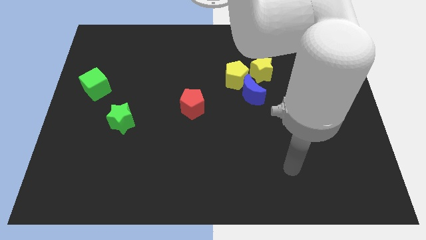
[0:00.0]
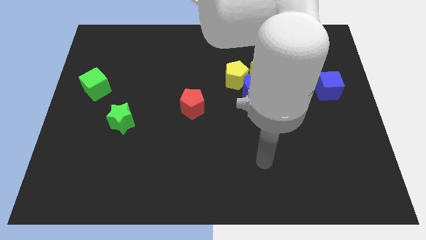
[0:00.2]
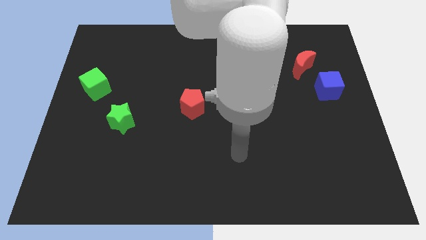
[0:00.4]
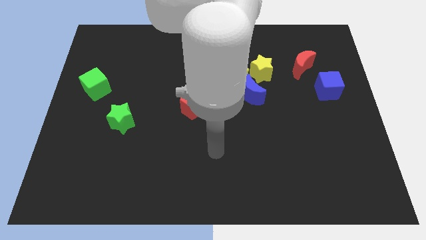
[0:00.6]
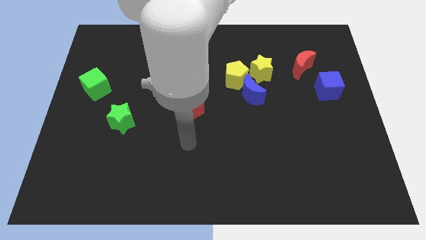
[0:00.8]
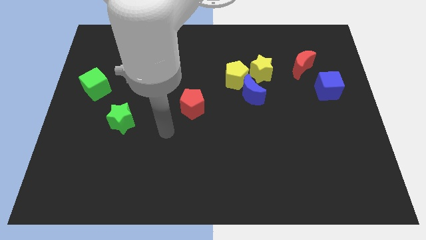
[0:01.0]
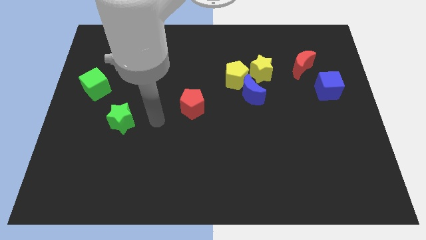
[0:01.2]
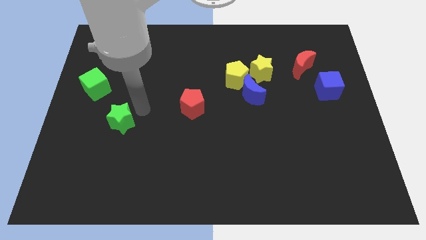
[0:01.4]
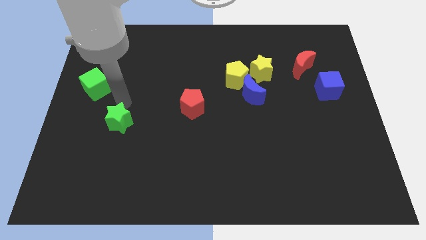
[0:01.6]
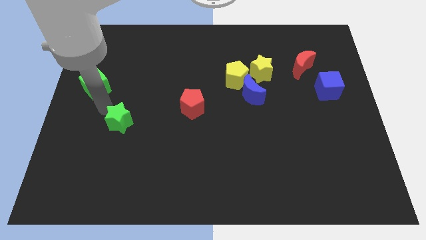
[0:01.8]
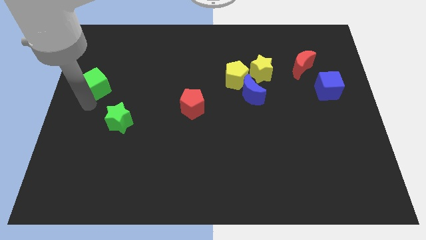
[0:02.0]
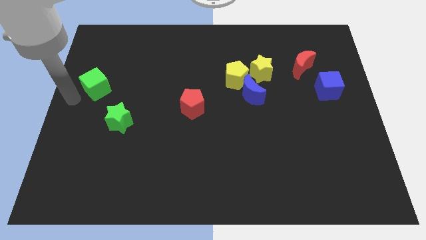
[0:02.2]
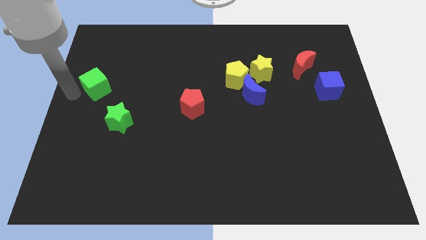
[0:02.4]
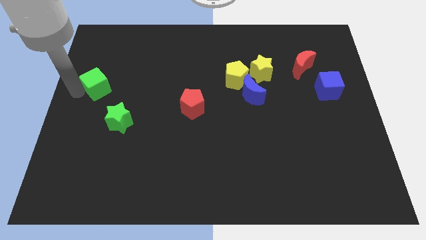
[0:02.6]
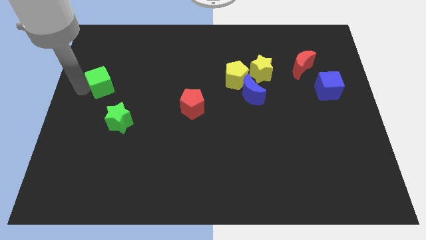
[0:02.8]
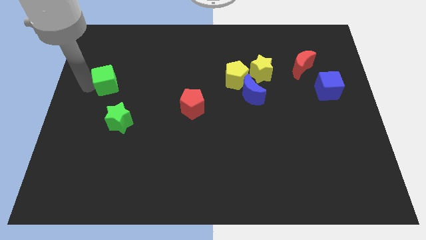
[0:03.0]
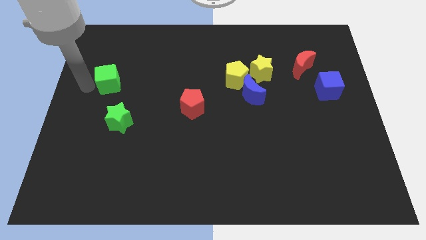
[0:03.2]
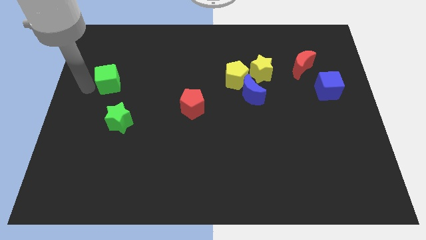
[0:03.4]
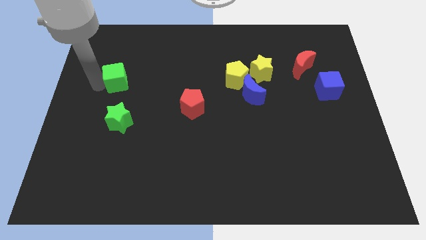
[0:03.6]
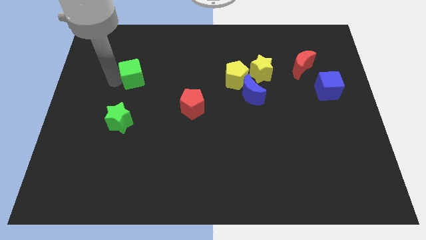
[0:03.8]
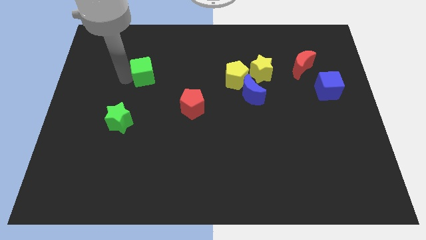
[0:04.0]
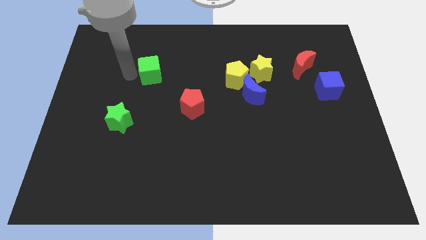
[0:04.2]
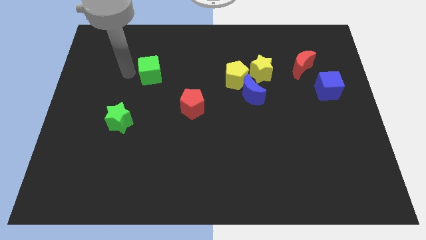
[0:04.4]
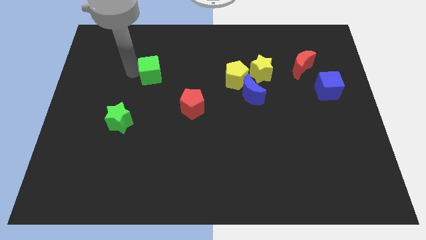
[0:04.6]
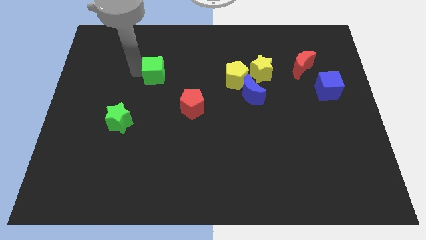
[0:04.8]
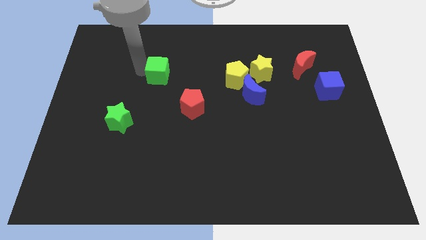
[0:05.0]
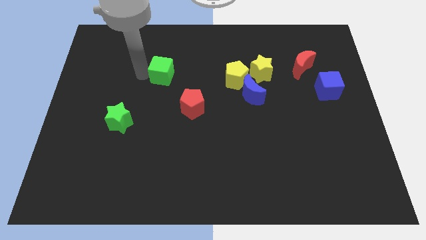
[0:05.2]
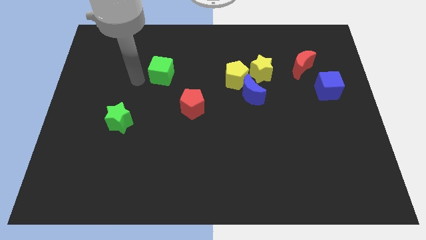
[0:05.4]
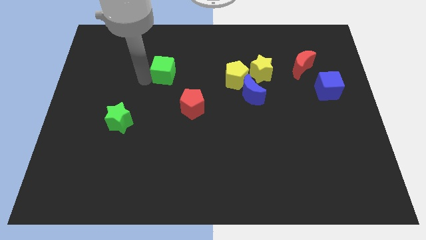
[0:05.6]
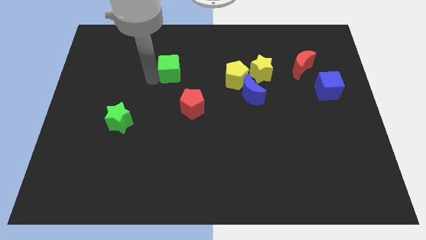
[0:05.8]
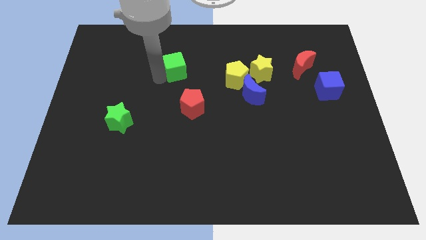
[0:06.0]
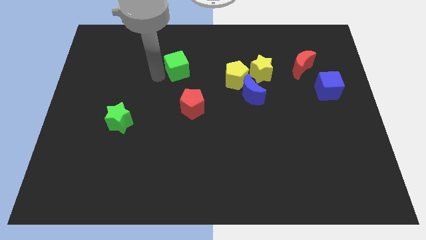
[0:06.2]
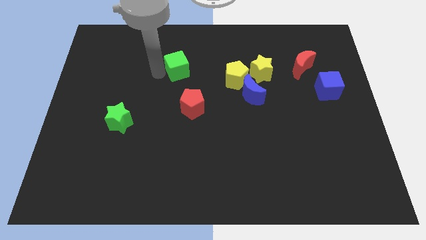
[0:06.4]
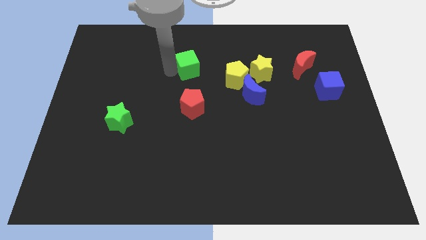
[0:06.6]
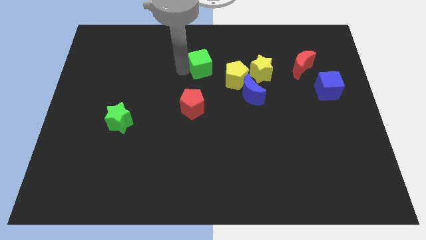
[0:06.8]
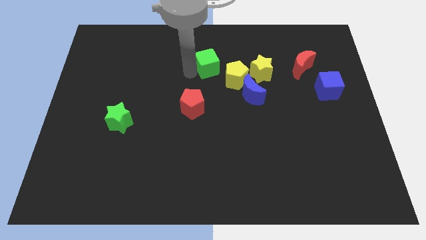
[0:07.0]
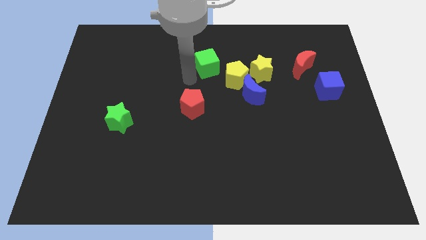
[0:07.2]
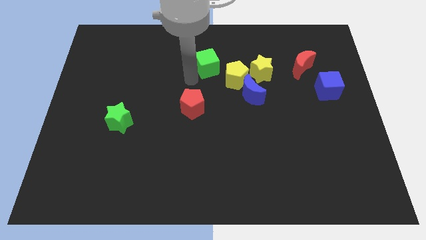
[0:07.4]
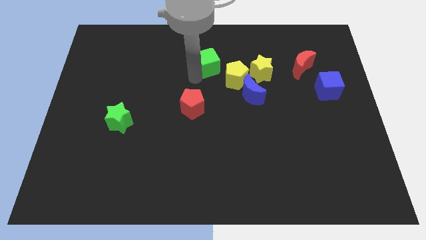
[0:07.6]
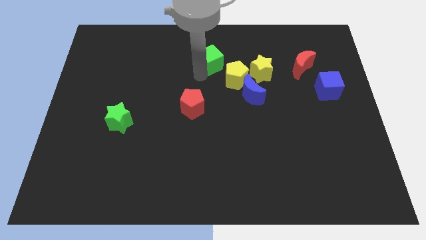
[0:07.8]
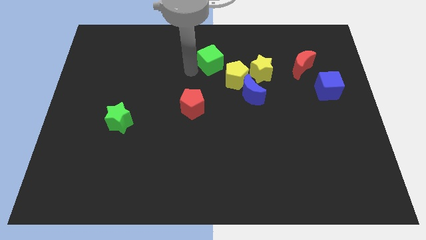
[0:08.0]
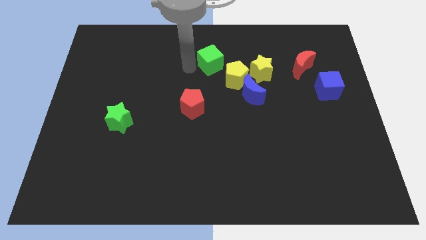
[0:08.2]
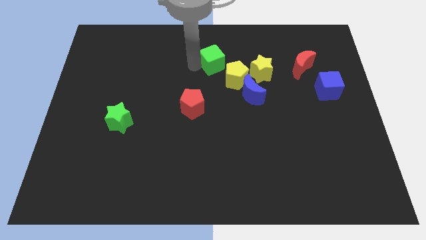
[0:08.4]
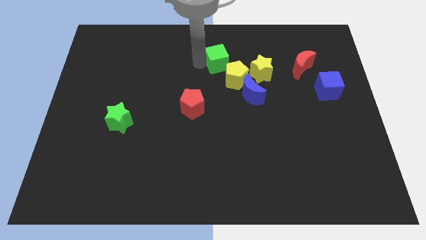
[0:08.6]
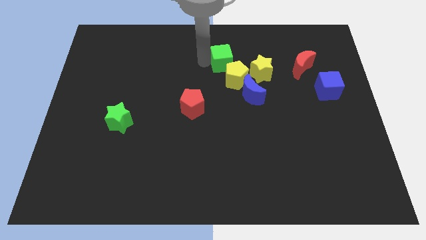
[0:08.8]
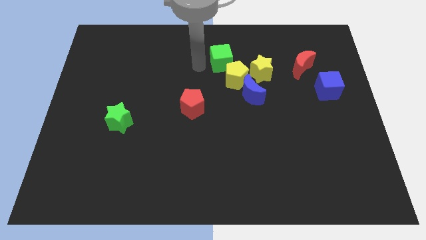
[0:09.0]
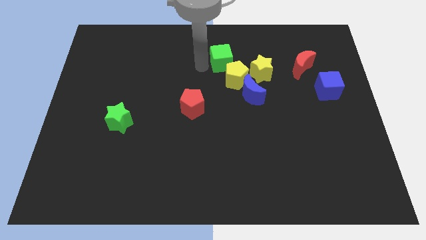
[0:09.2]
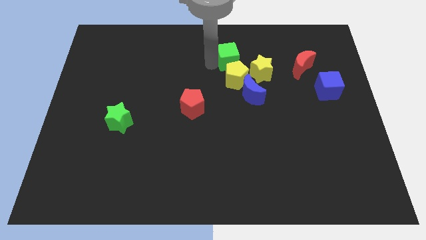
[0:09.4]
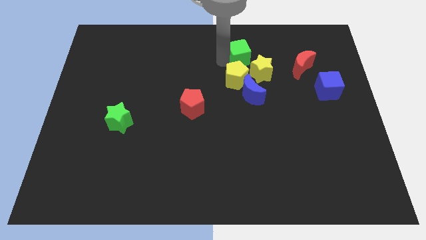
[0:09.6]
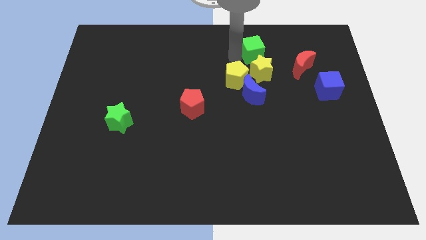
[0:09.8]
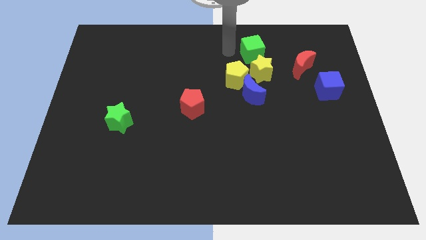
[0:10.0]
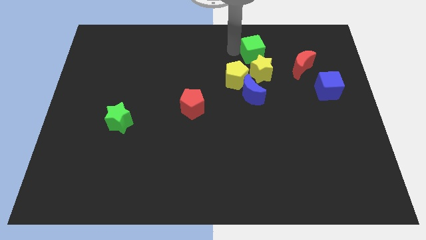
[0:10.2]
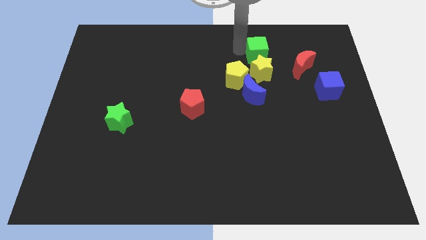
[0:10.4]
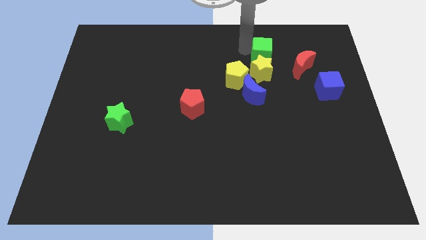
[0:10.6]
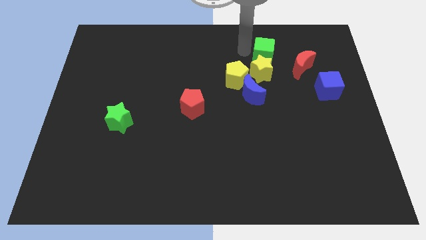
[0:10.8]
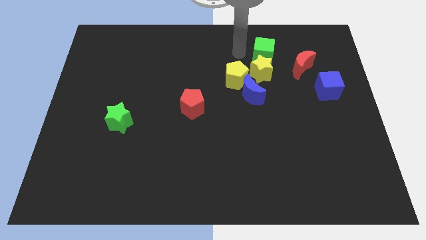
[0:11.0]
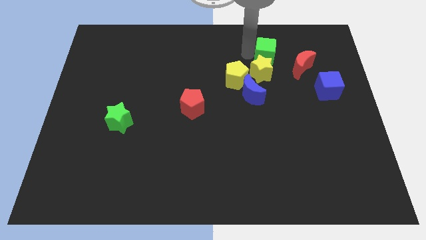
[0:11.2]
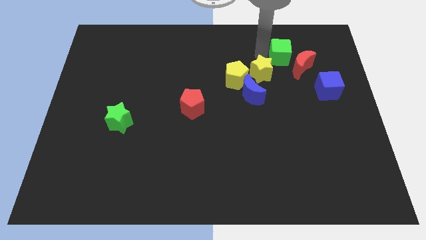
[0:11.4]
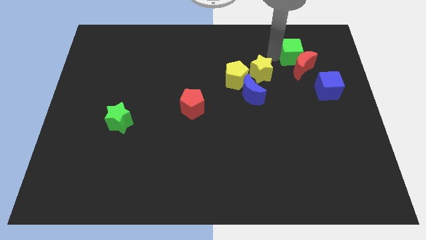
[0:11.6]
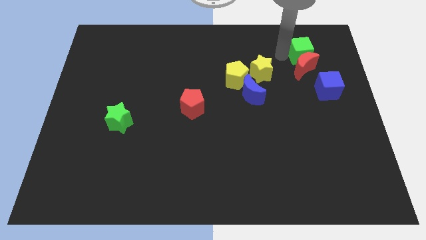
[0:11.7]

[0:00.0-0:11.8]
slide the green cube to the top side of the blue cube

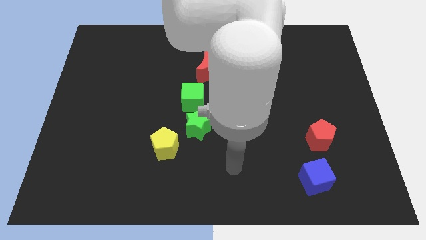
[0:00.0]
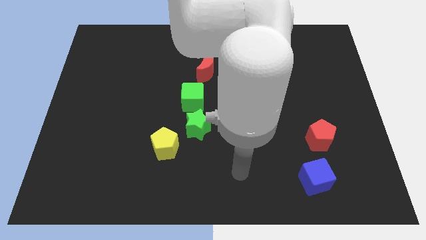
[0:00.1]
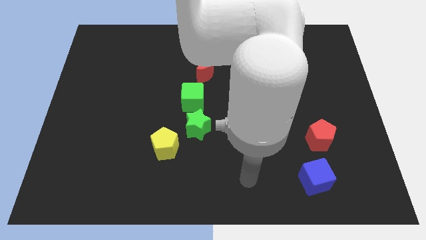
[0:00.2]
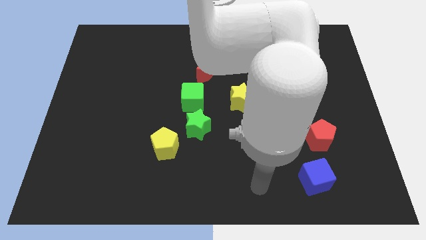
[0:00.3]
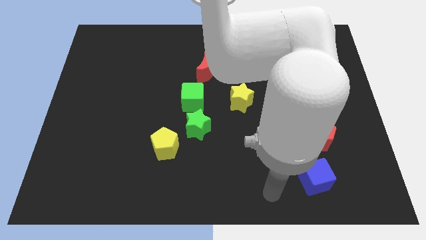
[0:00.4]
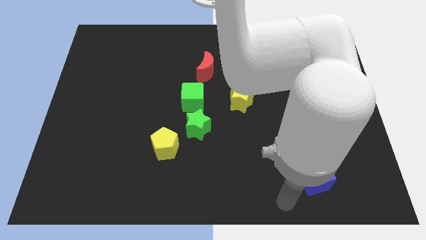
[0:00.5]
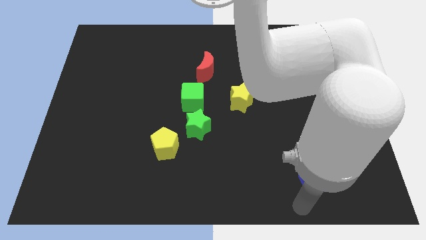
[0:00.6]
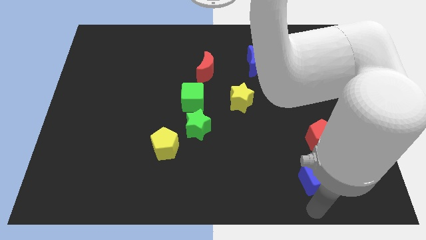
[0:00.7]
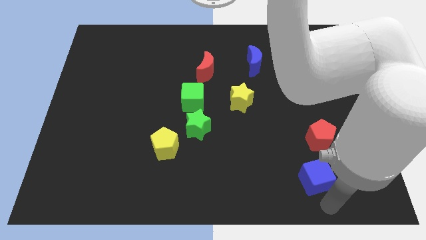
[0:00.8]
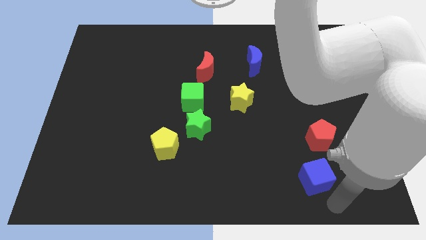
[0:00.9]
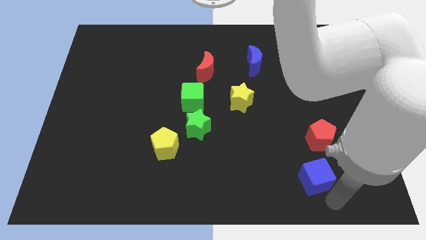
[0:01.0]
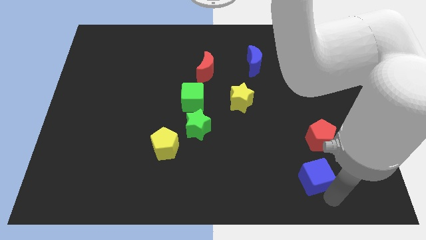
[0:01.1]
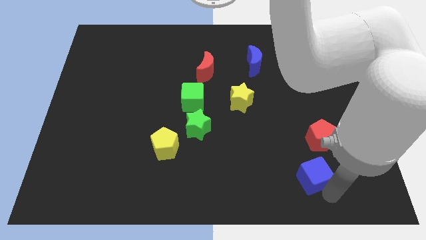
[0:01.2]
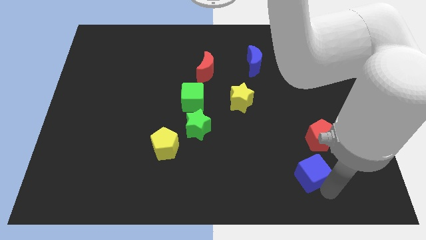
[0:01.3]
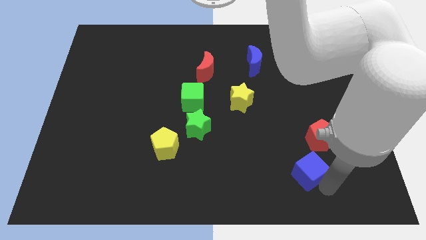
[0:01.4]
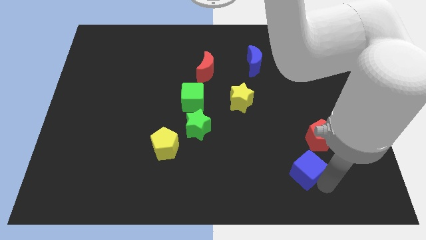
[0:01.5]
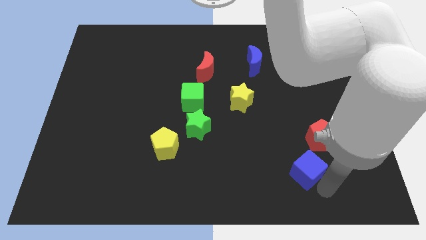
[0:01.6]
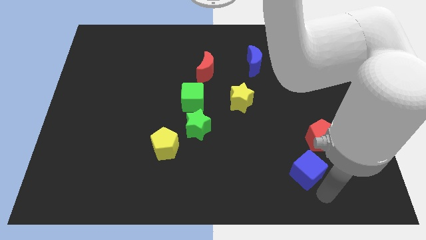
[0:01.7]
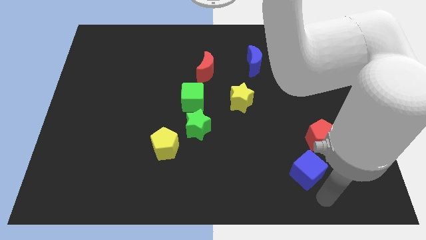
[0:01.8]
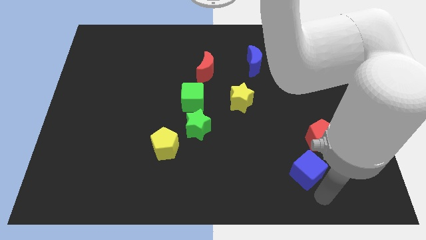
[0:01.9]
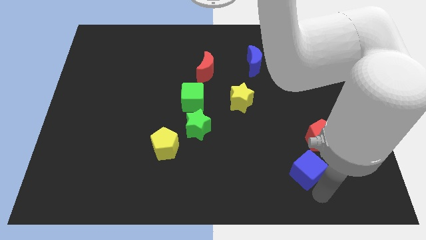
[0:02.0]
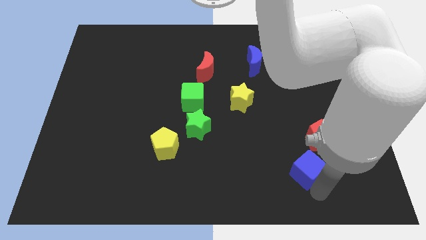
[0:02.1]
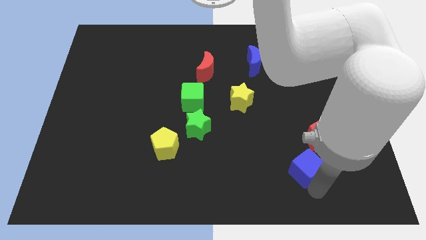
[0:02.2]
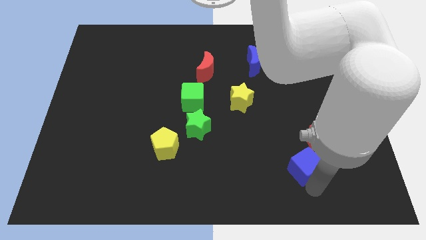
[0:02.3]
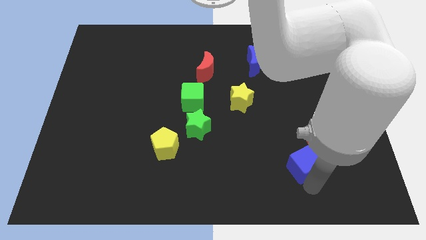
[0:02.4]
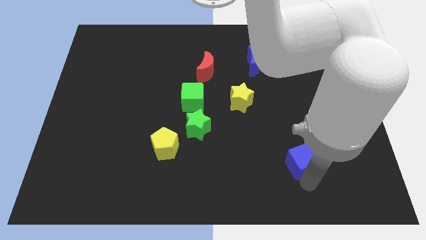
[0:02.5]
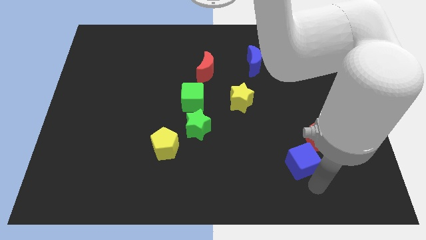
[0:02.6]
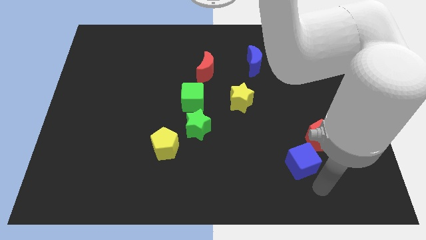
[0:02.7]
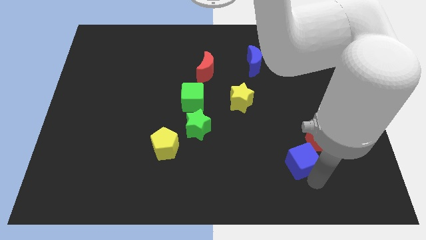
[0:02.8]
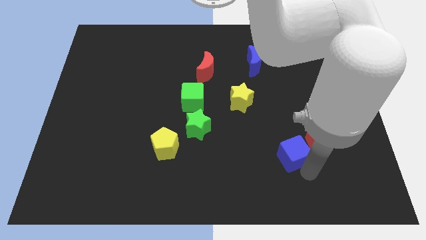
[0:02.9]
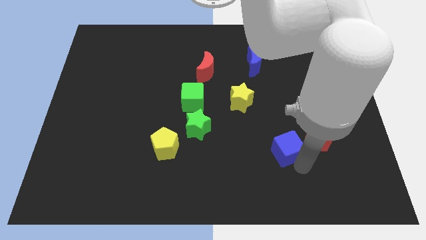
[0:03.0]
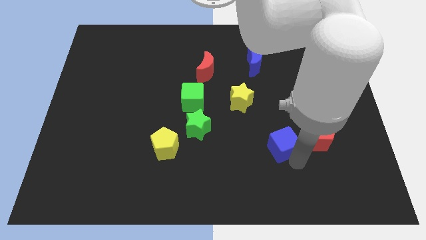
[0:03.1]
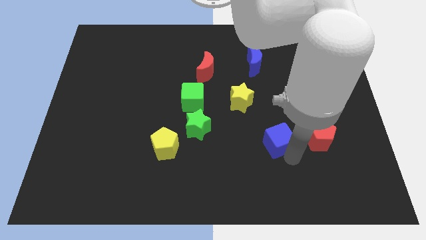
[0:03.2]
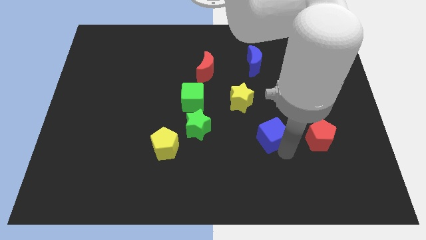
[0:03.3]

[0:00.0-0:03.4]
slide the blue cube to the bottom right of the yellow star
